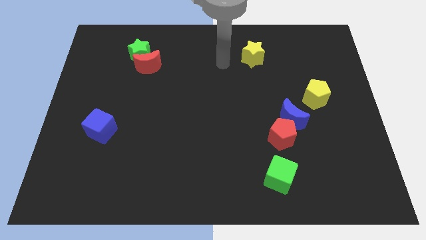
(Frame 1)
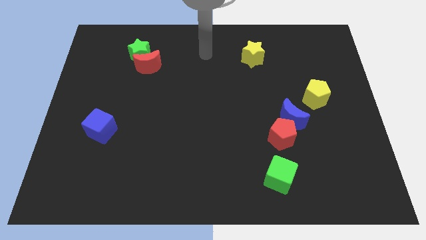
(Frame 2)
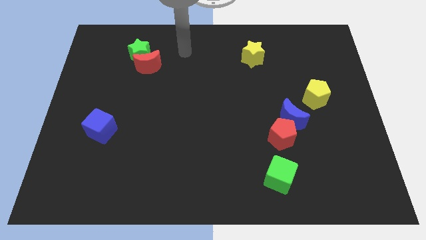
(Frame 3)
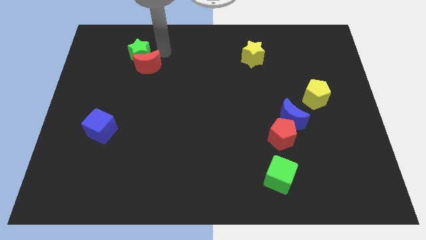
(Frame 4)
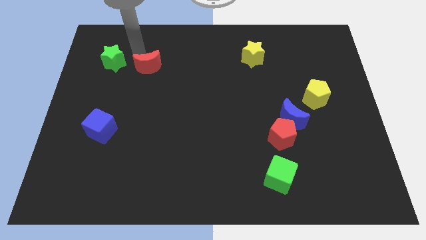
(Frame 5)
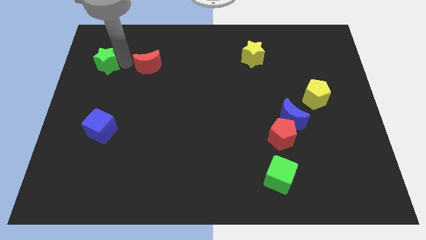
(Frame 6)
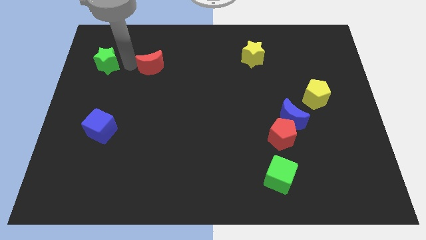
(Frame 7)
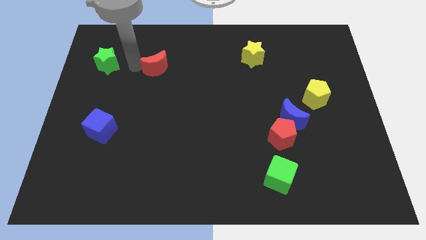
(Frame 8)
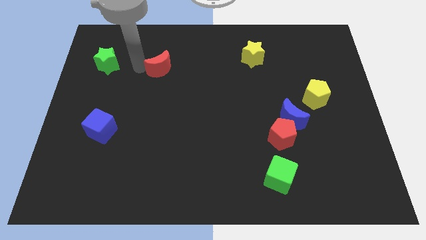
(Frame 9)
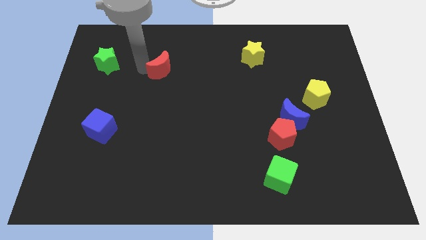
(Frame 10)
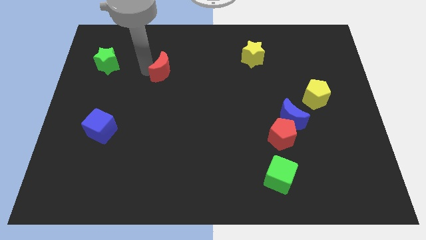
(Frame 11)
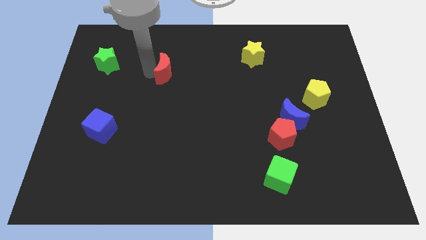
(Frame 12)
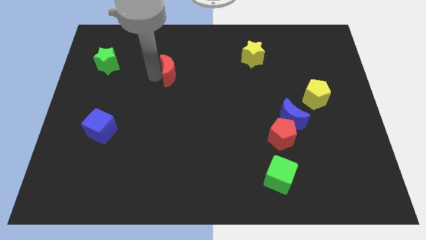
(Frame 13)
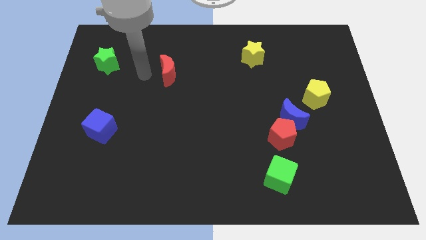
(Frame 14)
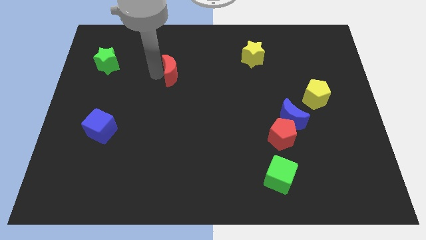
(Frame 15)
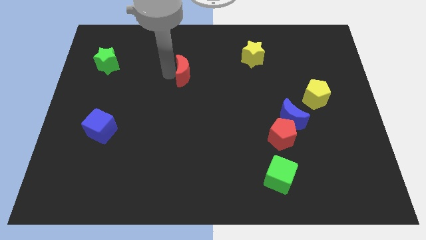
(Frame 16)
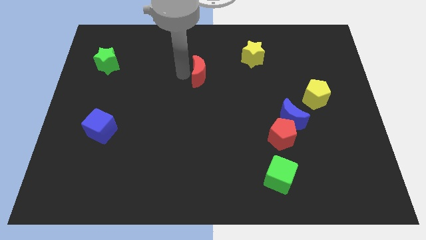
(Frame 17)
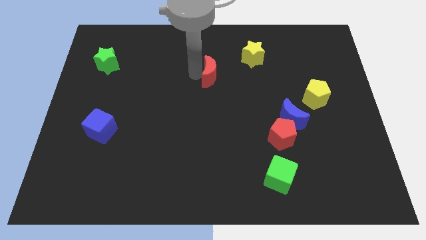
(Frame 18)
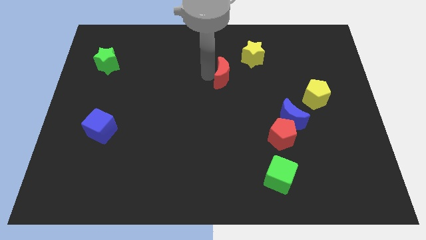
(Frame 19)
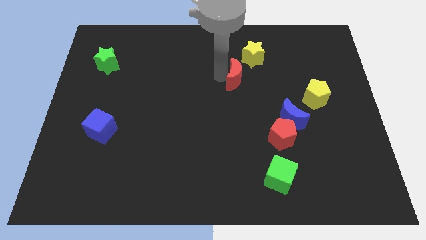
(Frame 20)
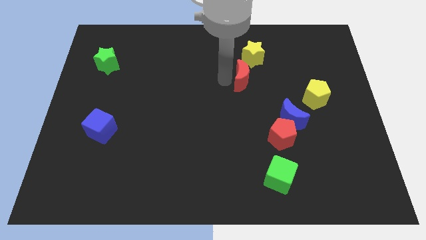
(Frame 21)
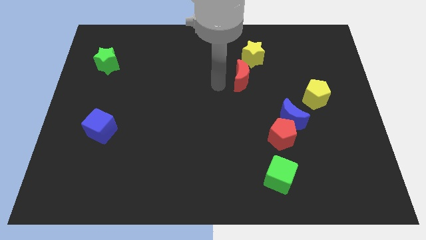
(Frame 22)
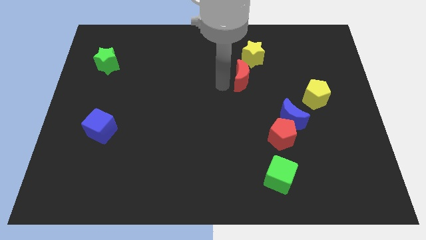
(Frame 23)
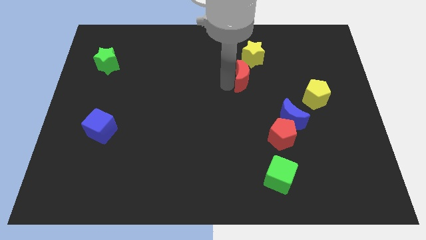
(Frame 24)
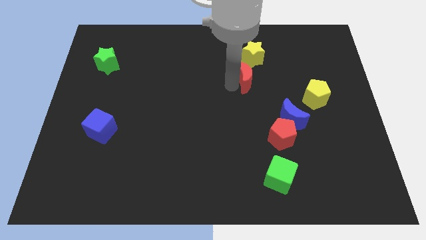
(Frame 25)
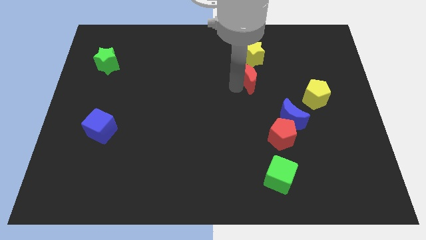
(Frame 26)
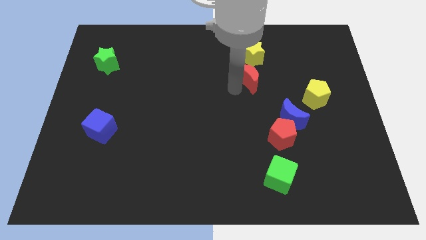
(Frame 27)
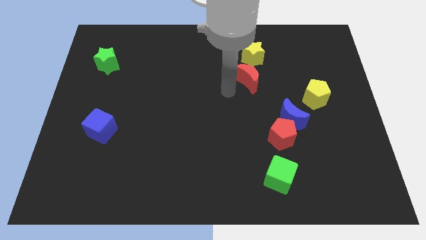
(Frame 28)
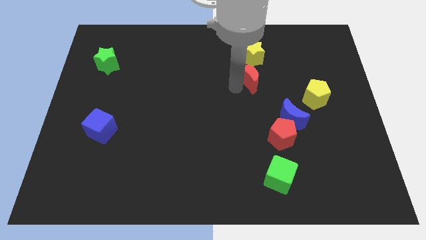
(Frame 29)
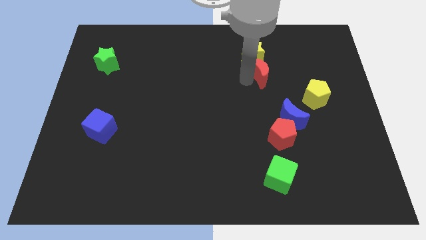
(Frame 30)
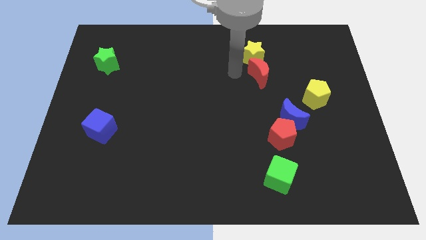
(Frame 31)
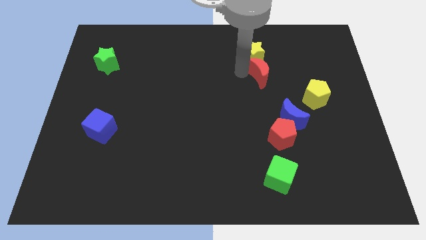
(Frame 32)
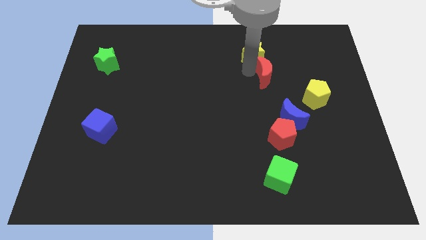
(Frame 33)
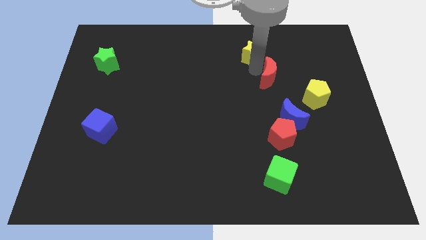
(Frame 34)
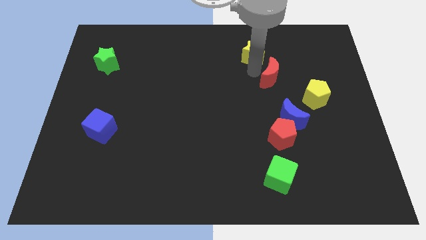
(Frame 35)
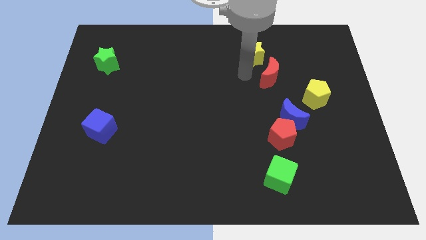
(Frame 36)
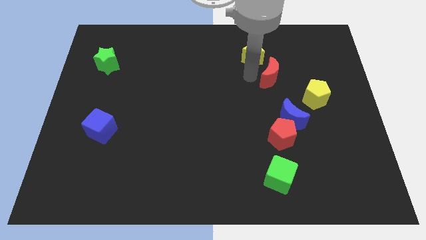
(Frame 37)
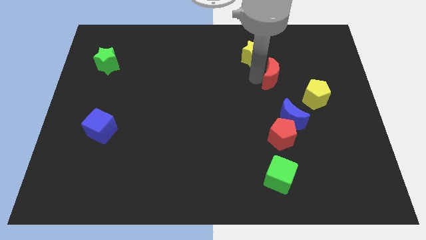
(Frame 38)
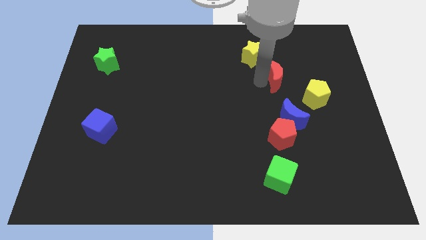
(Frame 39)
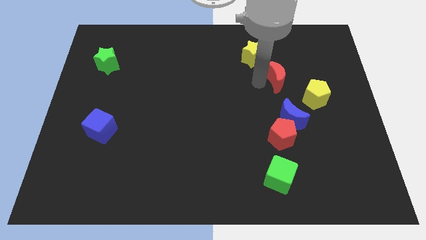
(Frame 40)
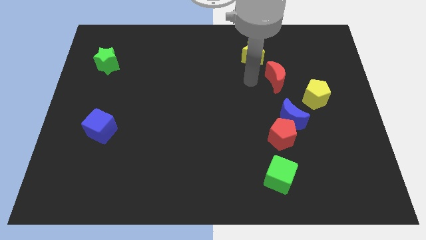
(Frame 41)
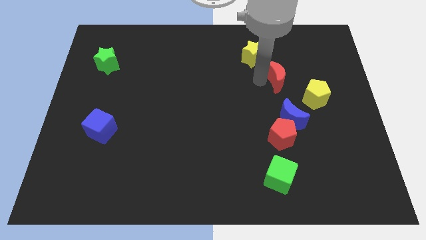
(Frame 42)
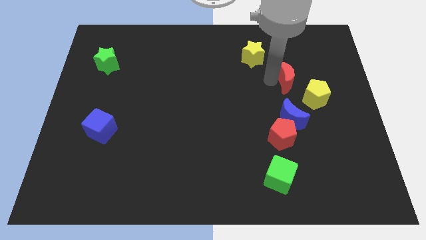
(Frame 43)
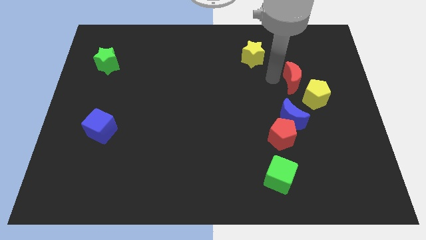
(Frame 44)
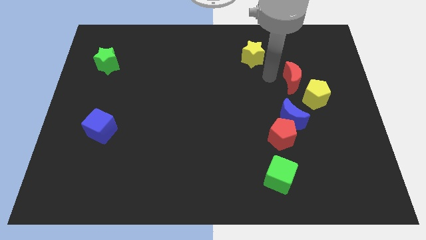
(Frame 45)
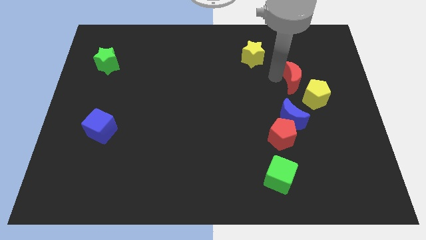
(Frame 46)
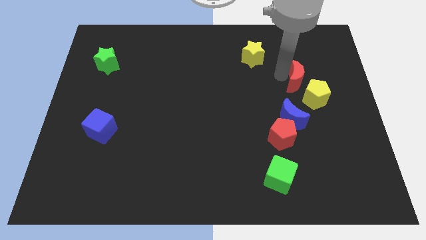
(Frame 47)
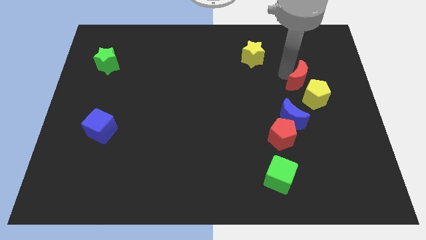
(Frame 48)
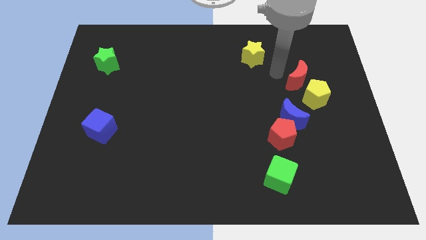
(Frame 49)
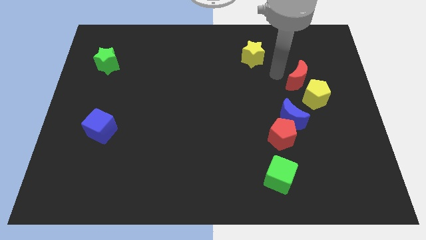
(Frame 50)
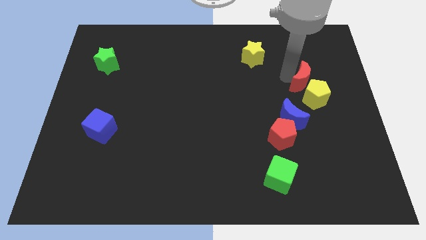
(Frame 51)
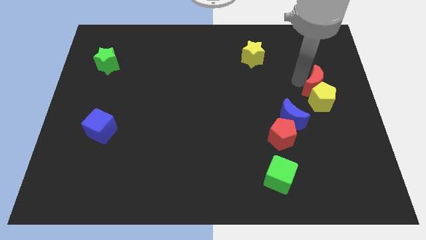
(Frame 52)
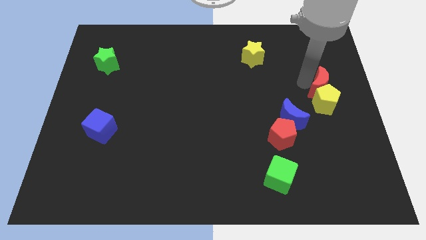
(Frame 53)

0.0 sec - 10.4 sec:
slide the red moon to the right side of the board

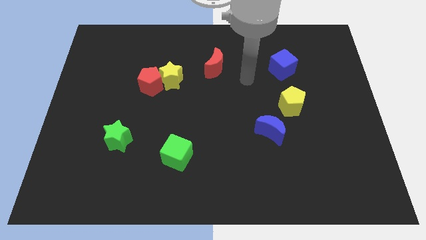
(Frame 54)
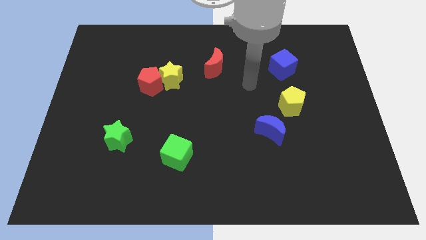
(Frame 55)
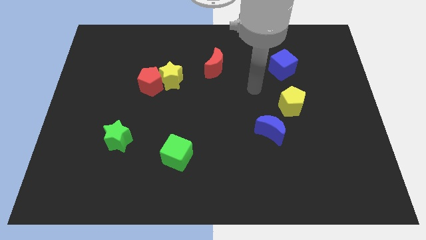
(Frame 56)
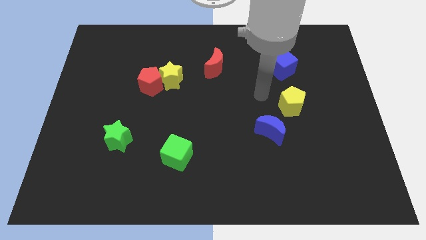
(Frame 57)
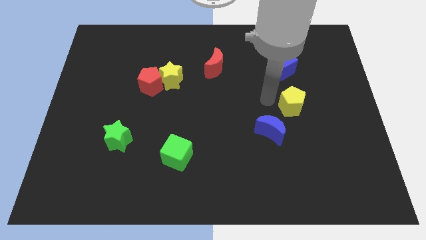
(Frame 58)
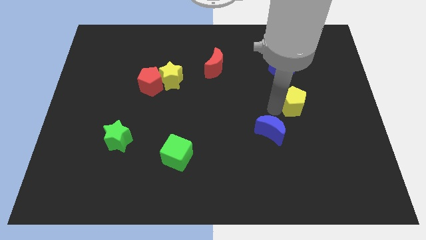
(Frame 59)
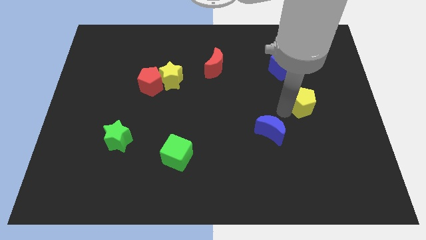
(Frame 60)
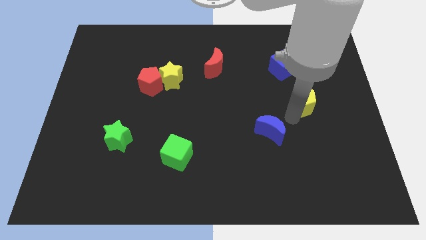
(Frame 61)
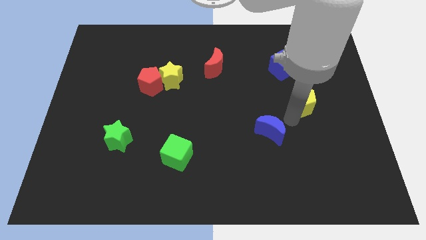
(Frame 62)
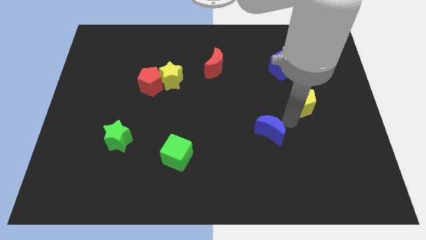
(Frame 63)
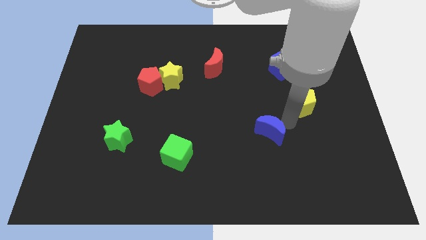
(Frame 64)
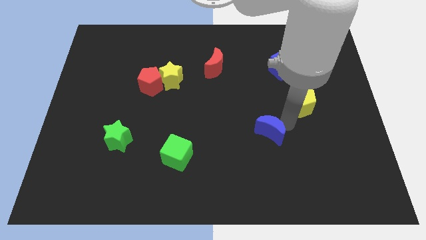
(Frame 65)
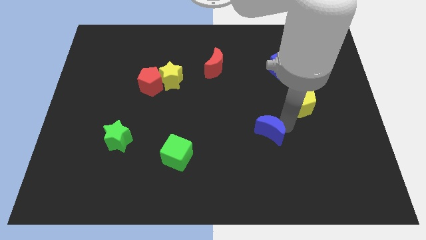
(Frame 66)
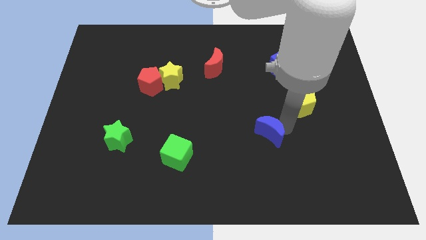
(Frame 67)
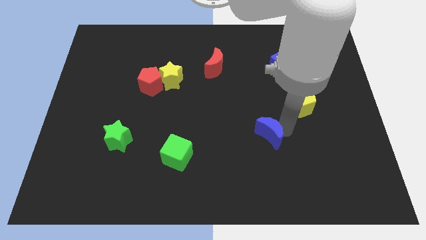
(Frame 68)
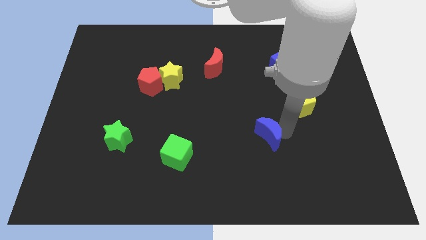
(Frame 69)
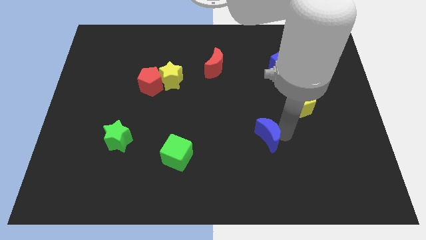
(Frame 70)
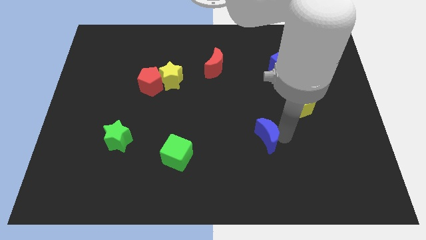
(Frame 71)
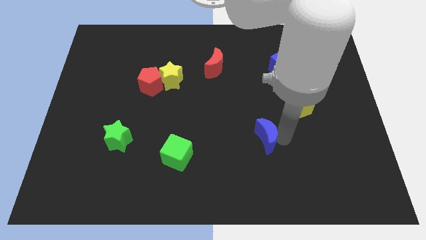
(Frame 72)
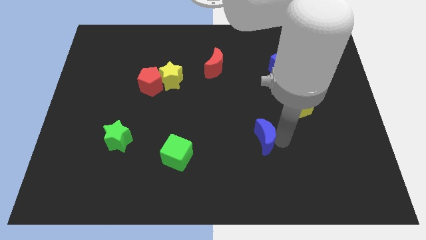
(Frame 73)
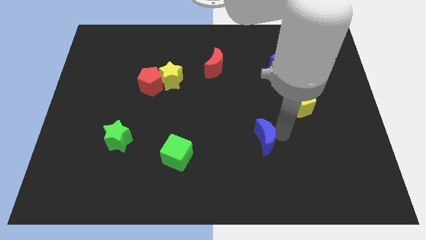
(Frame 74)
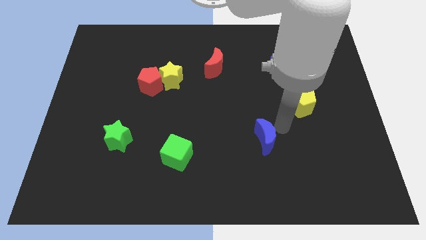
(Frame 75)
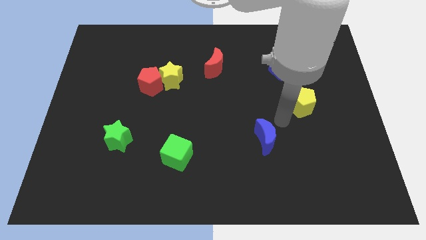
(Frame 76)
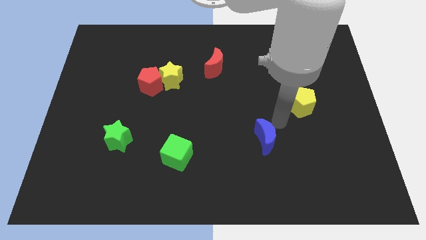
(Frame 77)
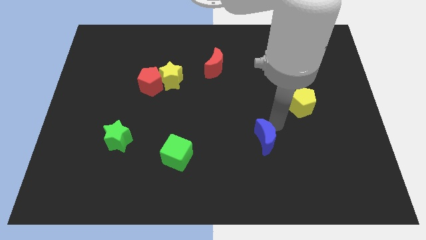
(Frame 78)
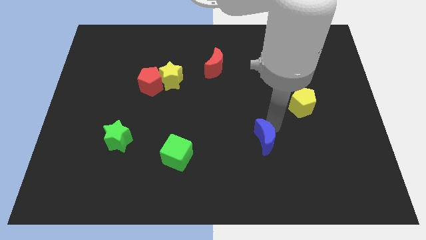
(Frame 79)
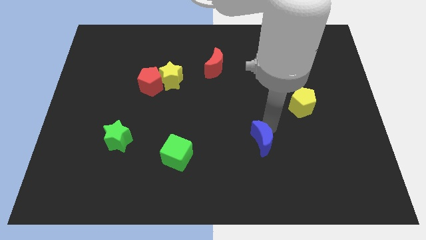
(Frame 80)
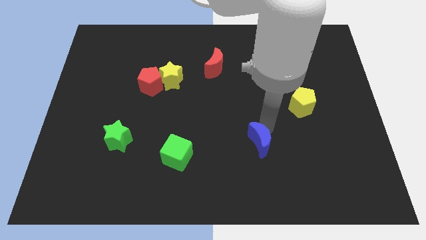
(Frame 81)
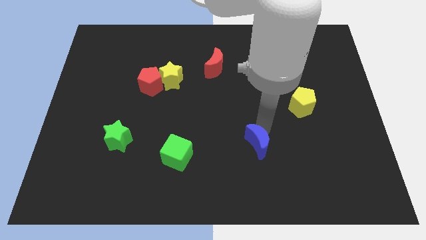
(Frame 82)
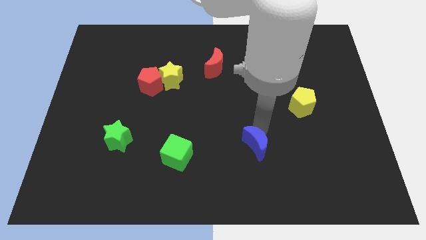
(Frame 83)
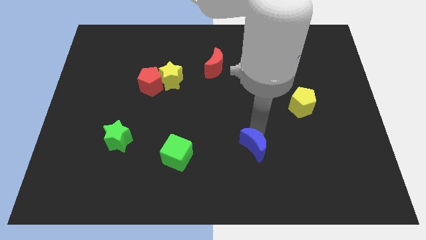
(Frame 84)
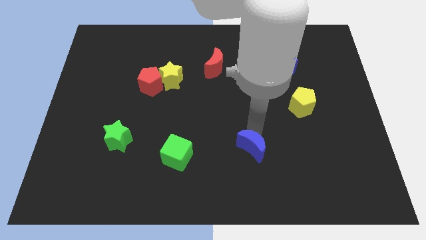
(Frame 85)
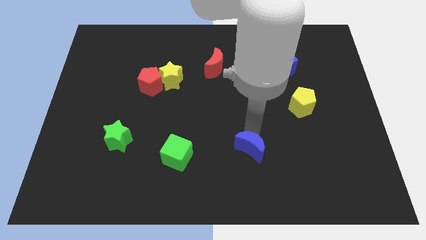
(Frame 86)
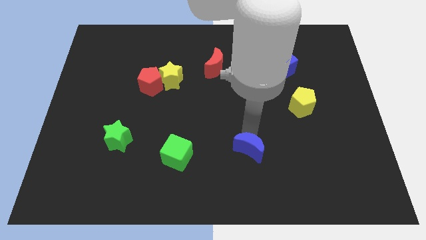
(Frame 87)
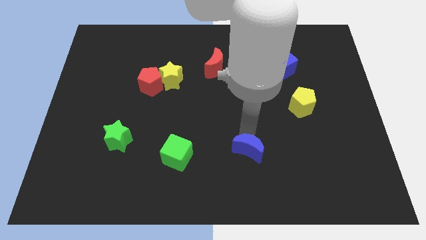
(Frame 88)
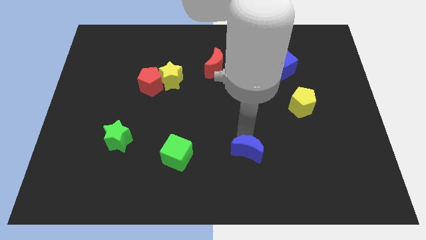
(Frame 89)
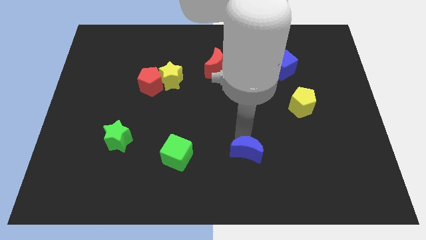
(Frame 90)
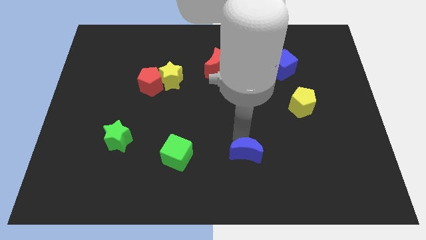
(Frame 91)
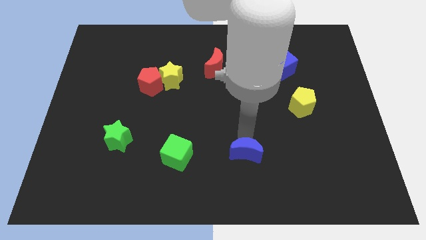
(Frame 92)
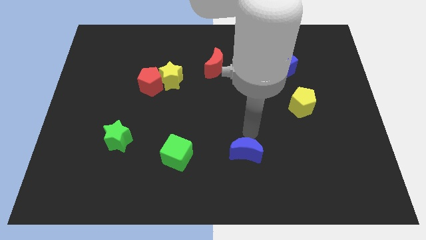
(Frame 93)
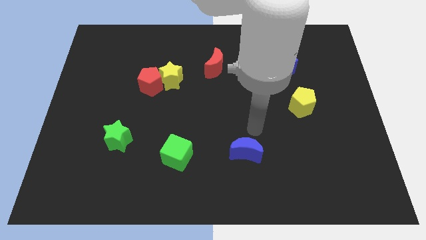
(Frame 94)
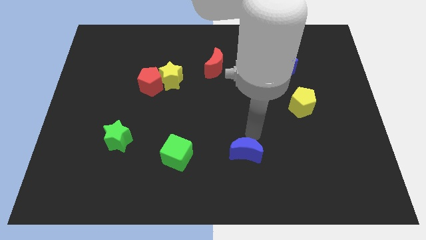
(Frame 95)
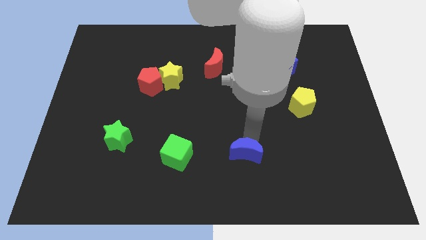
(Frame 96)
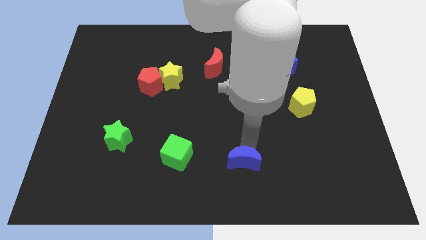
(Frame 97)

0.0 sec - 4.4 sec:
move the blue moon to the bottom
